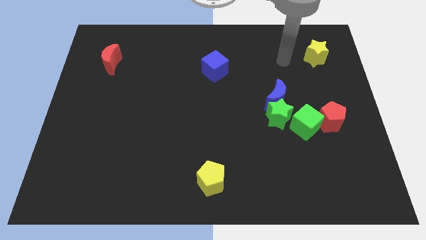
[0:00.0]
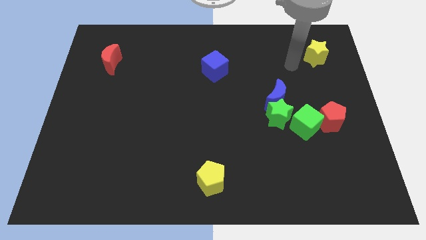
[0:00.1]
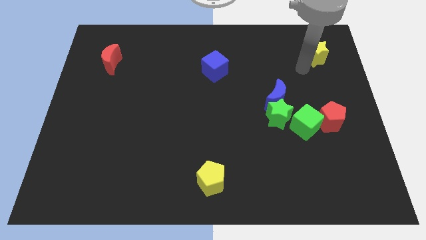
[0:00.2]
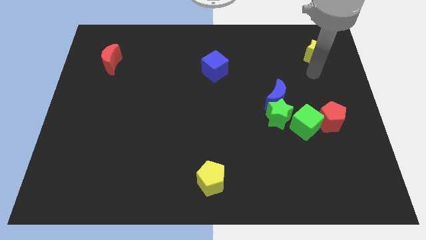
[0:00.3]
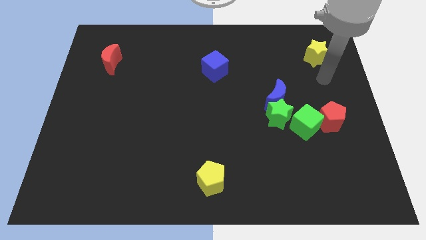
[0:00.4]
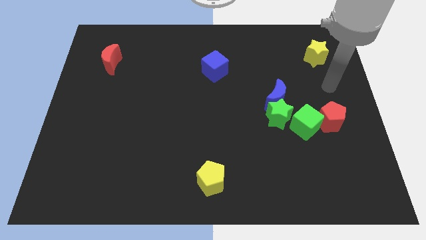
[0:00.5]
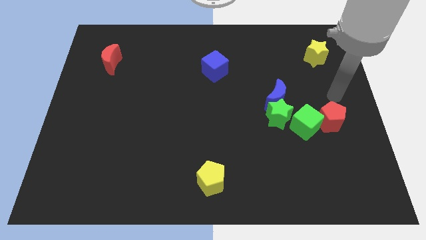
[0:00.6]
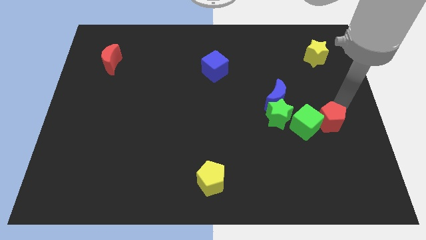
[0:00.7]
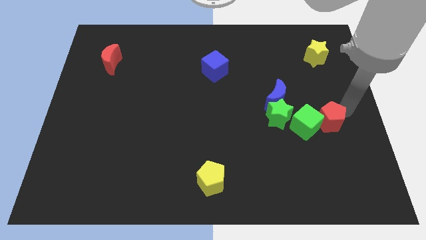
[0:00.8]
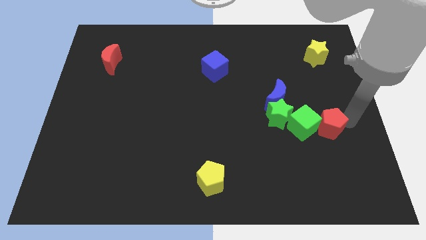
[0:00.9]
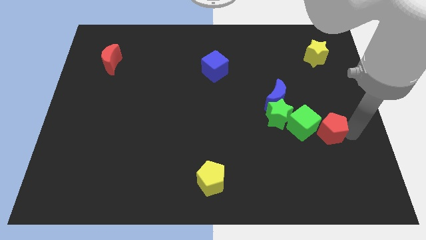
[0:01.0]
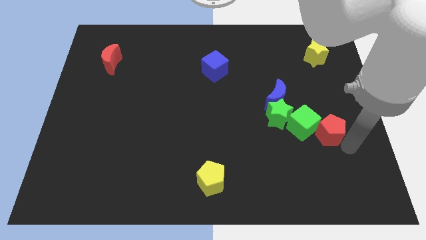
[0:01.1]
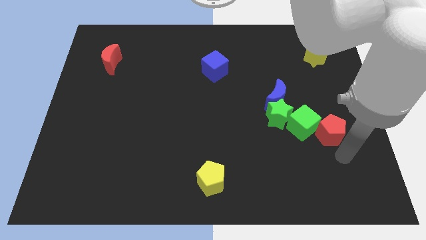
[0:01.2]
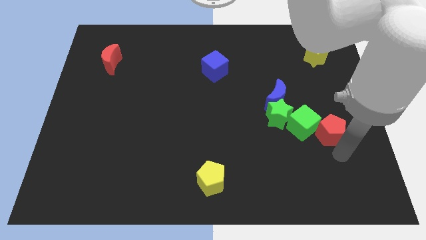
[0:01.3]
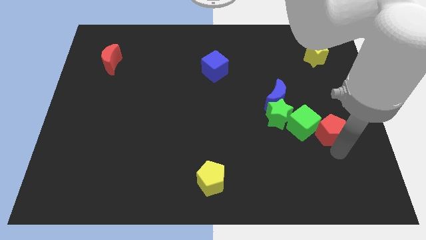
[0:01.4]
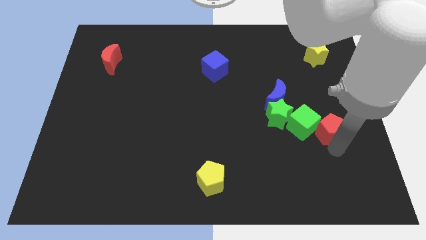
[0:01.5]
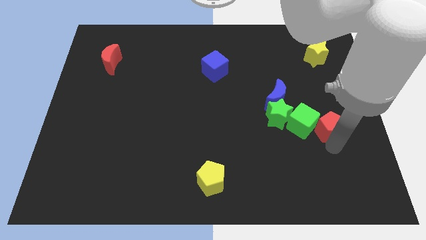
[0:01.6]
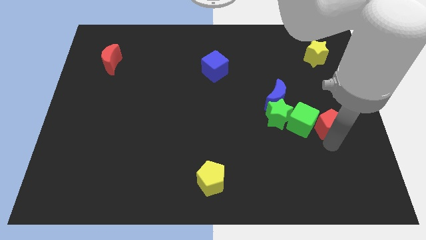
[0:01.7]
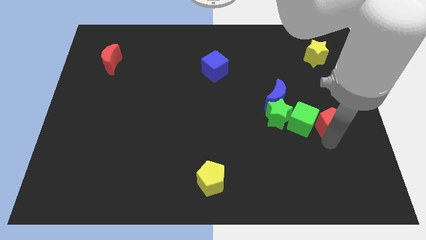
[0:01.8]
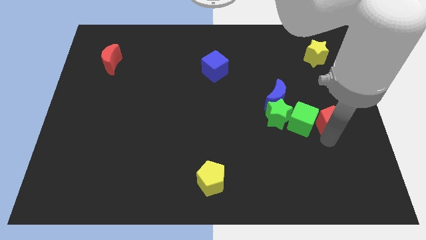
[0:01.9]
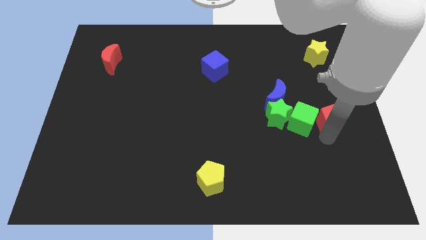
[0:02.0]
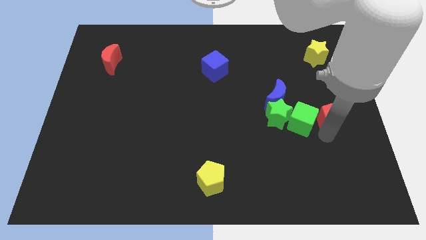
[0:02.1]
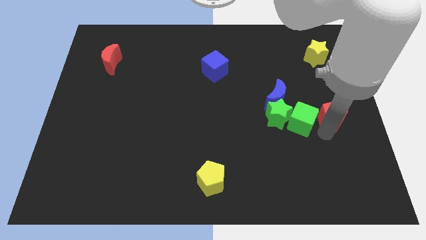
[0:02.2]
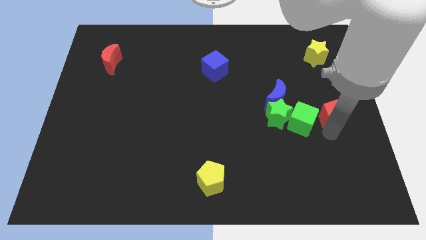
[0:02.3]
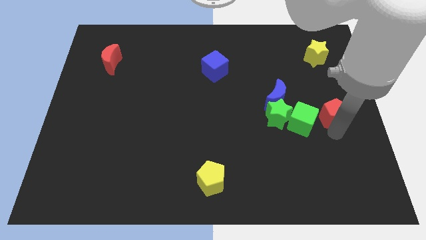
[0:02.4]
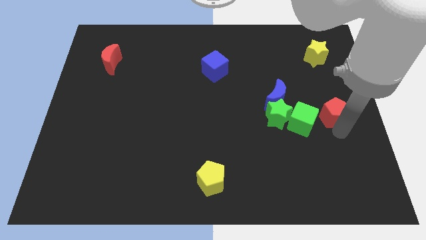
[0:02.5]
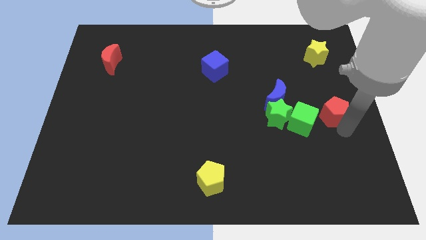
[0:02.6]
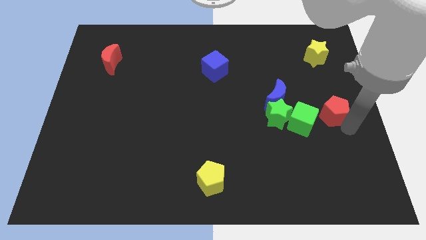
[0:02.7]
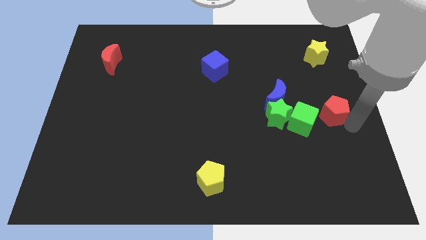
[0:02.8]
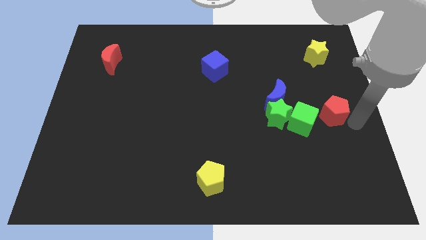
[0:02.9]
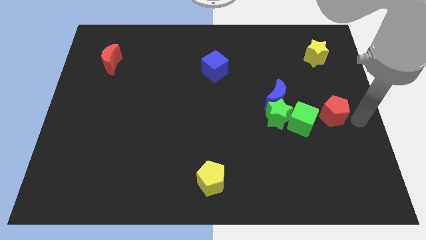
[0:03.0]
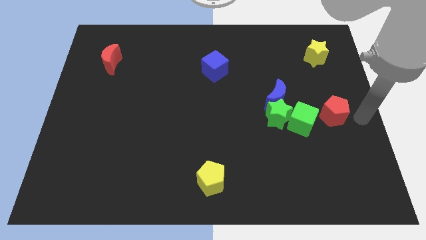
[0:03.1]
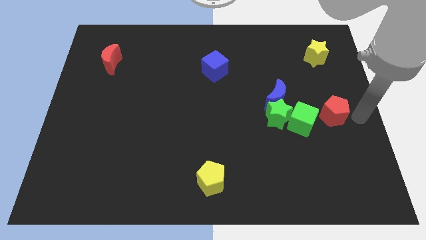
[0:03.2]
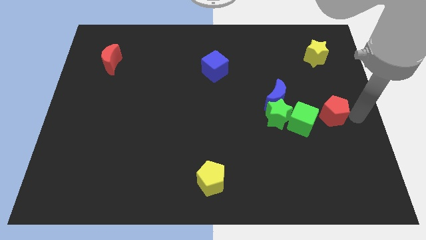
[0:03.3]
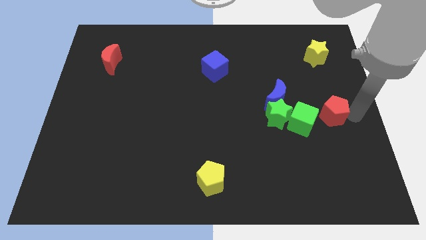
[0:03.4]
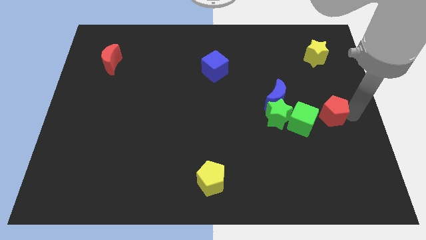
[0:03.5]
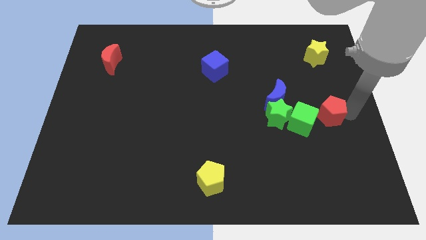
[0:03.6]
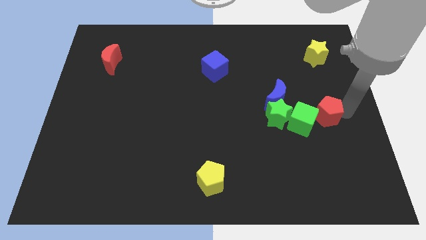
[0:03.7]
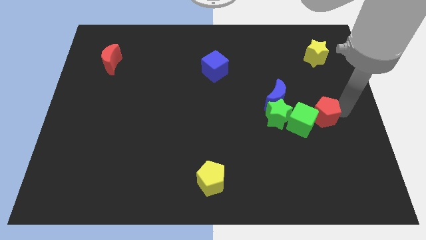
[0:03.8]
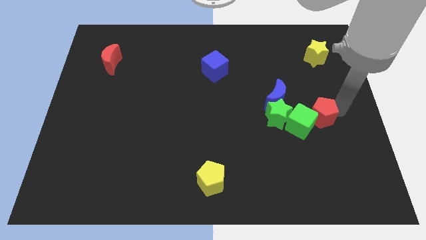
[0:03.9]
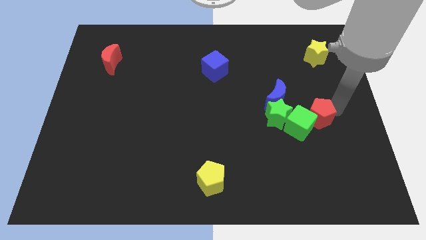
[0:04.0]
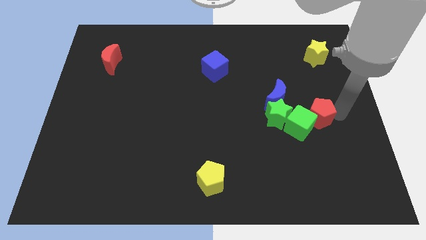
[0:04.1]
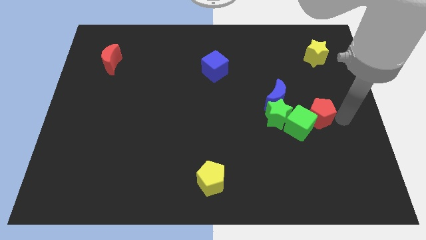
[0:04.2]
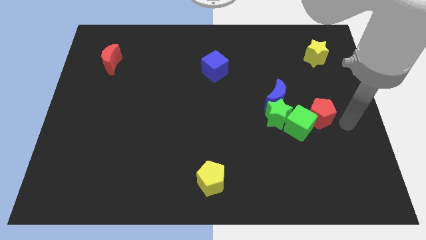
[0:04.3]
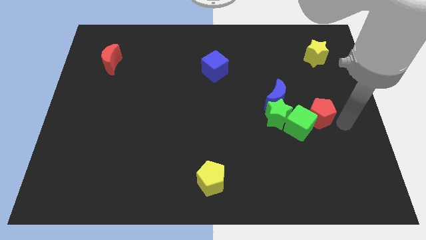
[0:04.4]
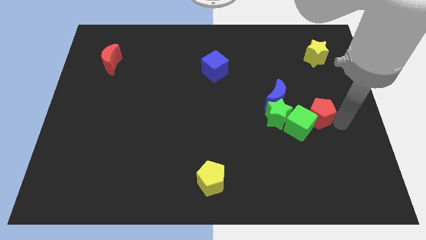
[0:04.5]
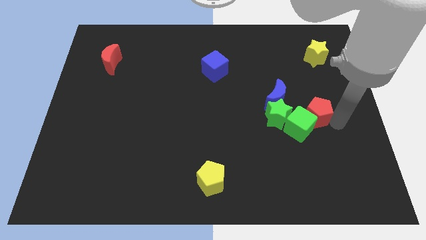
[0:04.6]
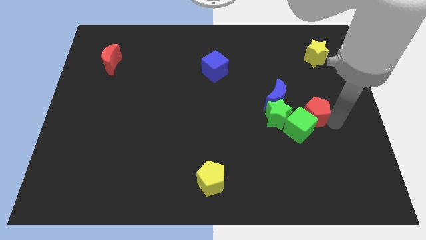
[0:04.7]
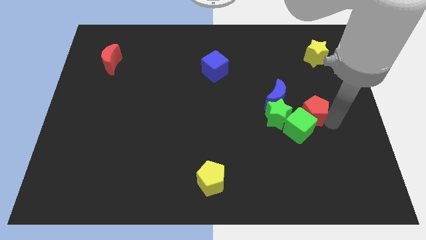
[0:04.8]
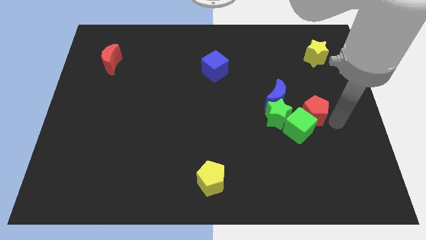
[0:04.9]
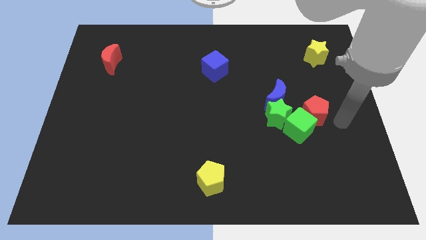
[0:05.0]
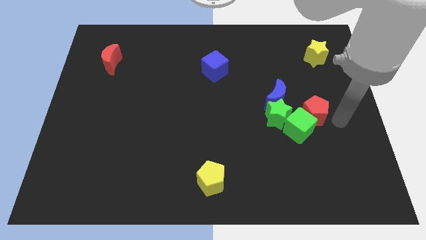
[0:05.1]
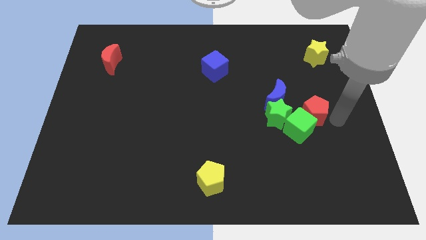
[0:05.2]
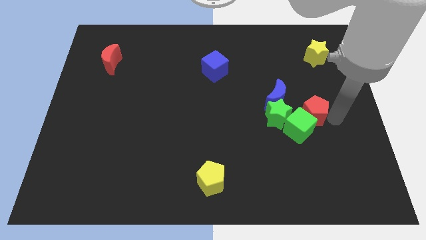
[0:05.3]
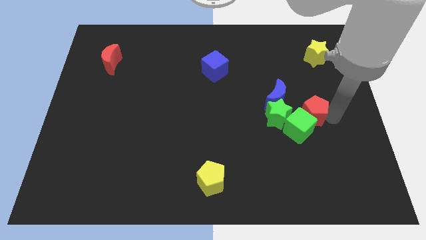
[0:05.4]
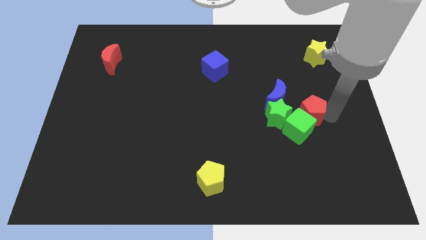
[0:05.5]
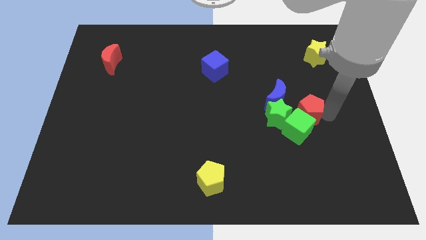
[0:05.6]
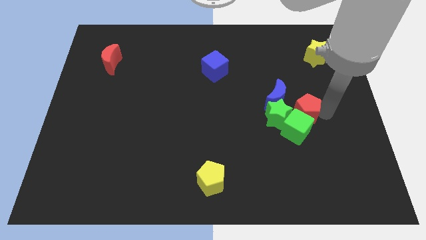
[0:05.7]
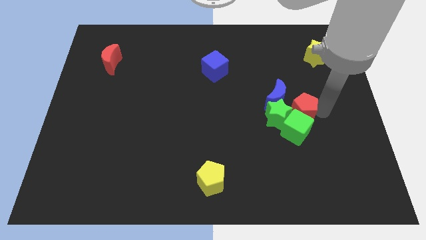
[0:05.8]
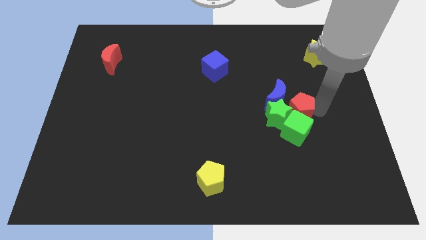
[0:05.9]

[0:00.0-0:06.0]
move the red pentagon towards the green star
